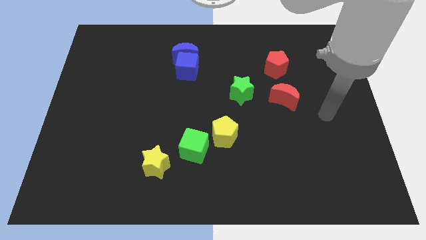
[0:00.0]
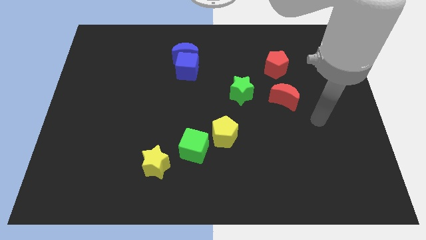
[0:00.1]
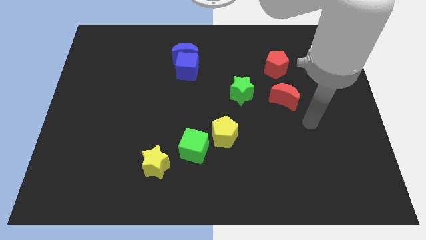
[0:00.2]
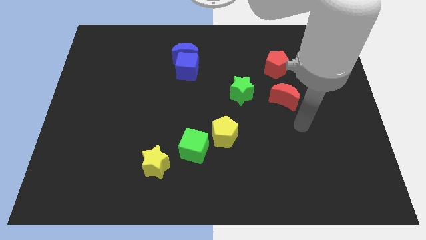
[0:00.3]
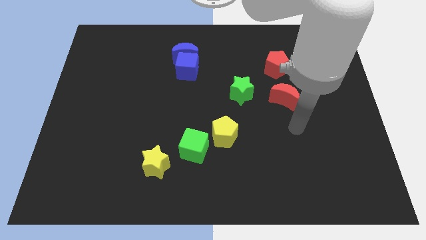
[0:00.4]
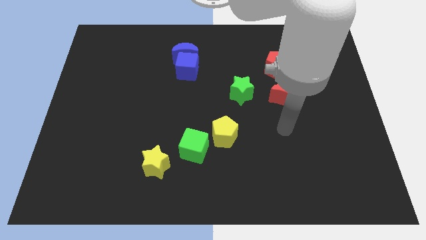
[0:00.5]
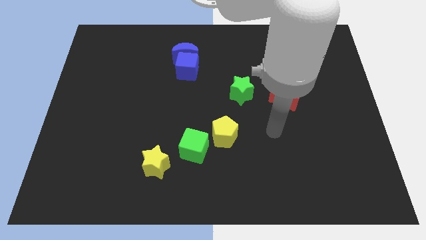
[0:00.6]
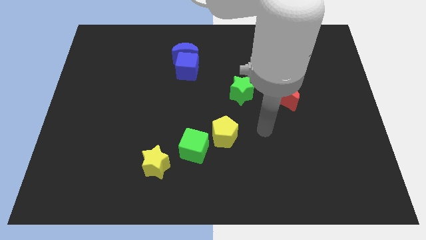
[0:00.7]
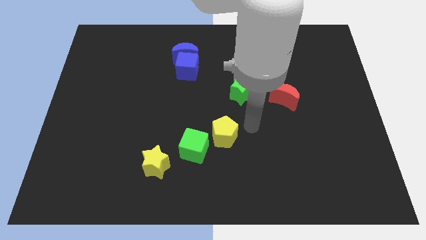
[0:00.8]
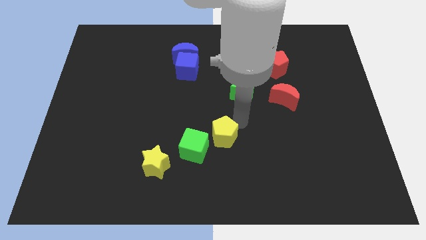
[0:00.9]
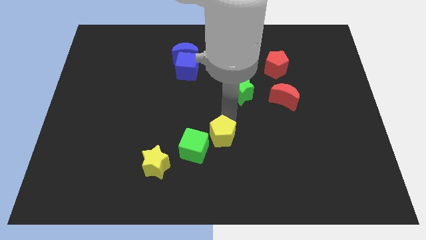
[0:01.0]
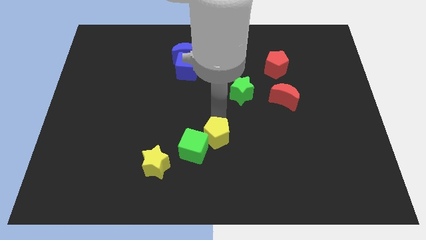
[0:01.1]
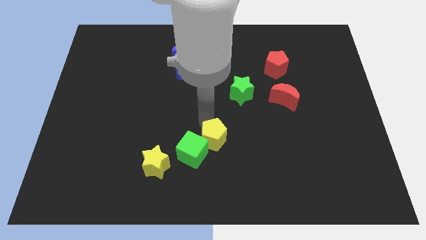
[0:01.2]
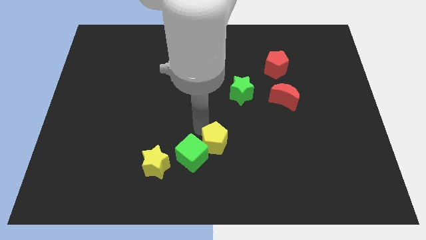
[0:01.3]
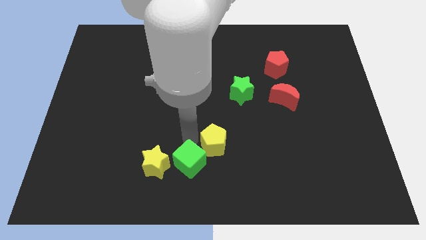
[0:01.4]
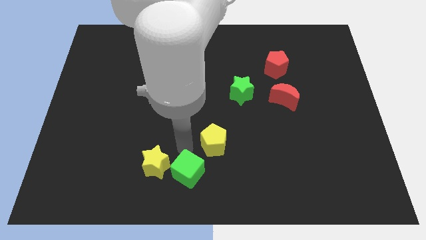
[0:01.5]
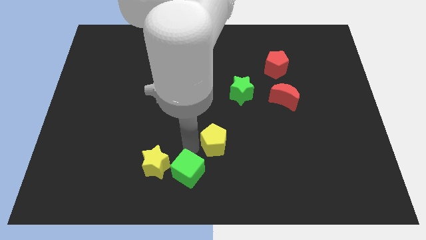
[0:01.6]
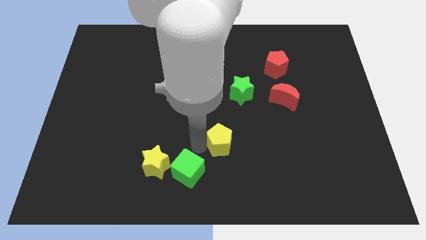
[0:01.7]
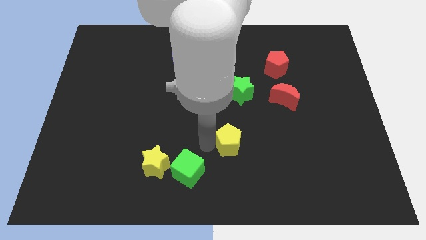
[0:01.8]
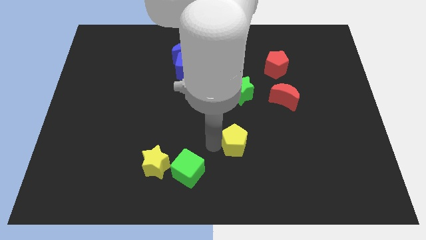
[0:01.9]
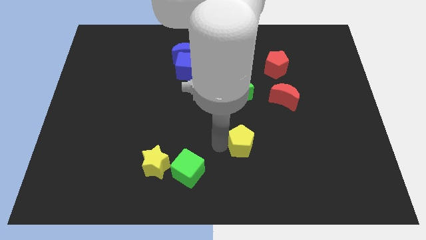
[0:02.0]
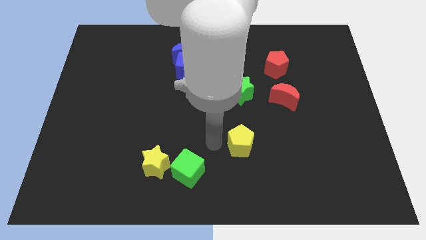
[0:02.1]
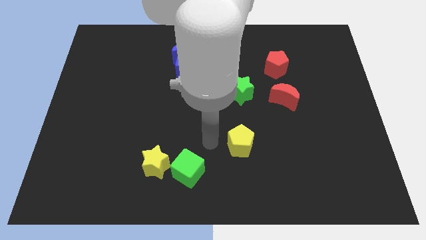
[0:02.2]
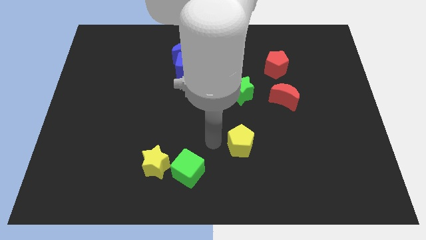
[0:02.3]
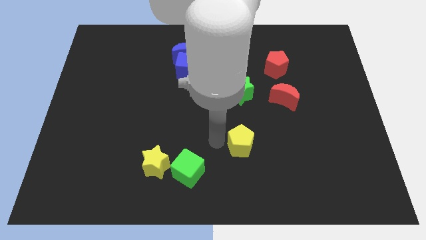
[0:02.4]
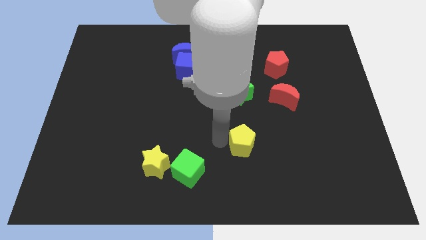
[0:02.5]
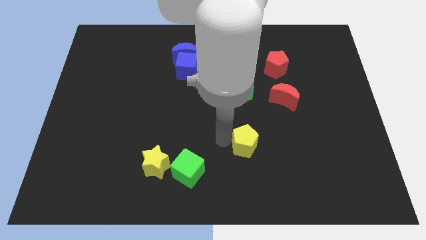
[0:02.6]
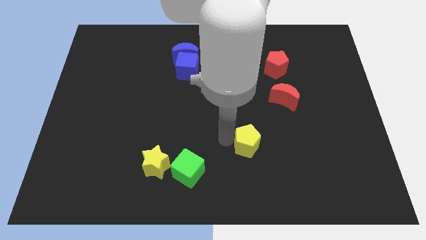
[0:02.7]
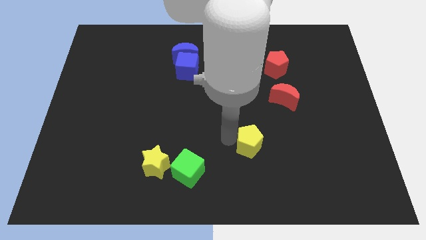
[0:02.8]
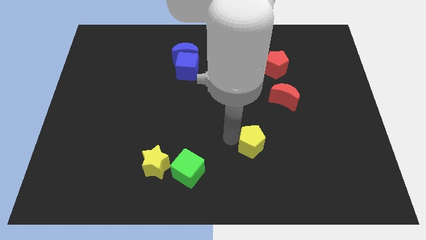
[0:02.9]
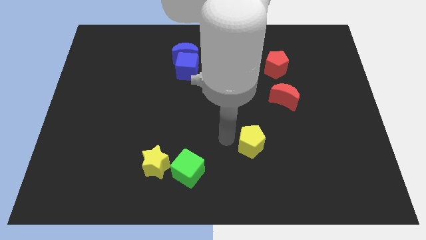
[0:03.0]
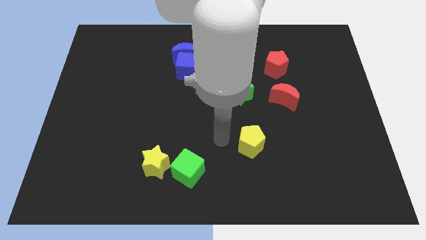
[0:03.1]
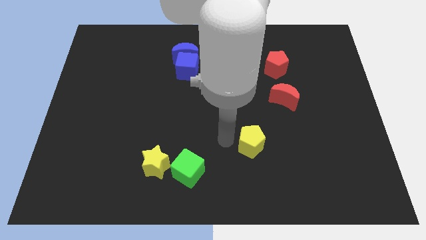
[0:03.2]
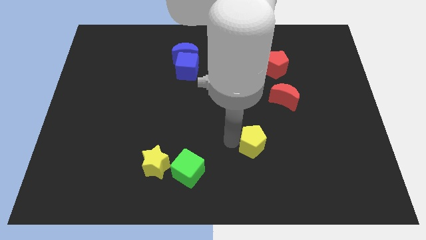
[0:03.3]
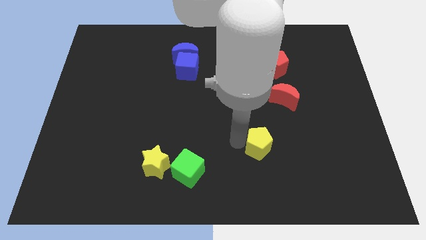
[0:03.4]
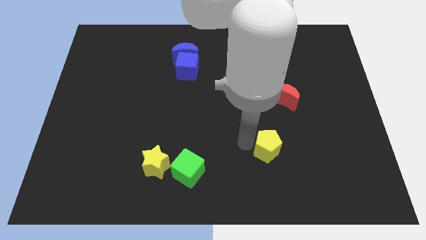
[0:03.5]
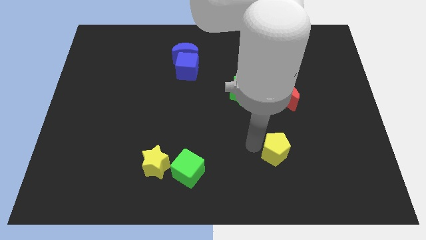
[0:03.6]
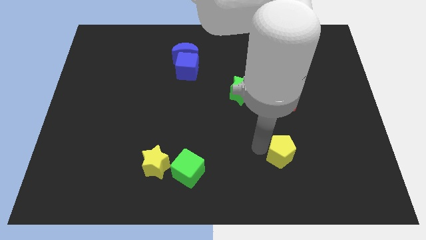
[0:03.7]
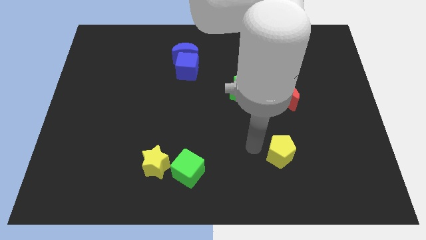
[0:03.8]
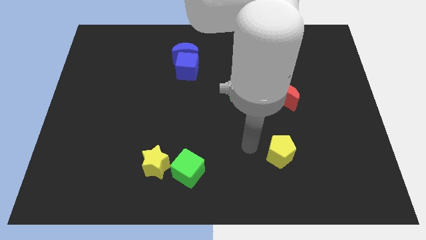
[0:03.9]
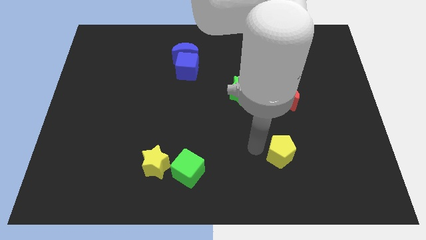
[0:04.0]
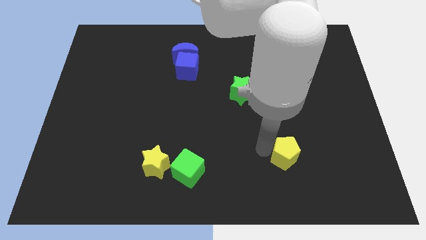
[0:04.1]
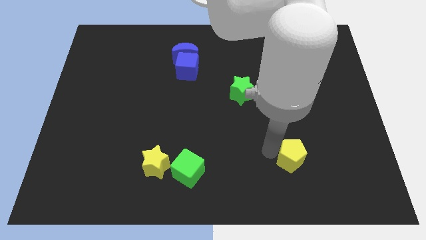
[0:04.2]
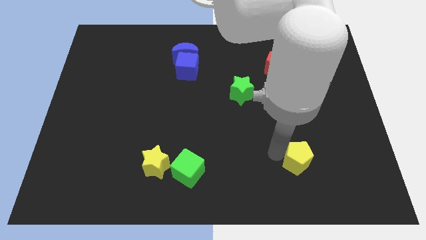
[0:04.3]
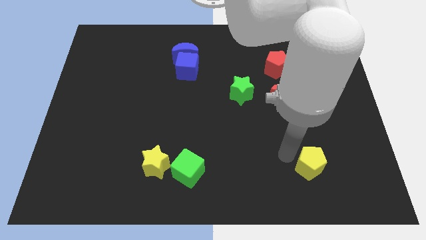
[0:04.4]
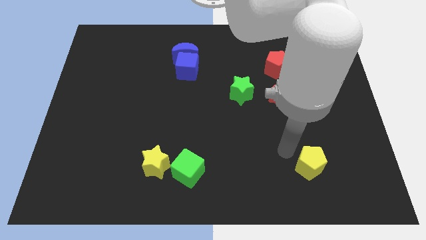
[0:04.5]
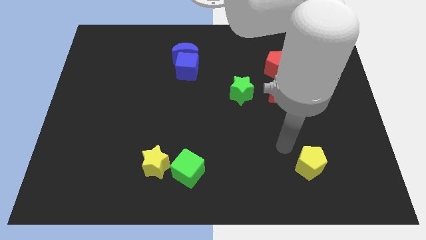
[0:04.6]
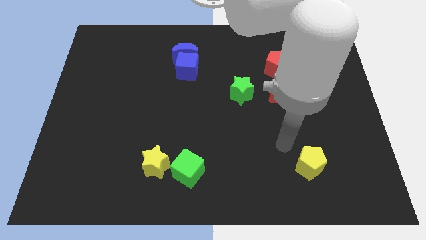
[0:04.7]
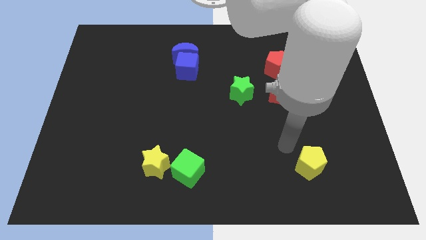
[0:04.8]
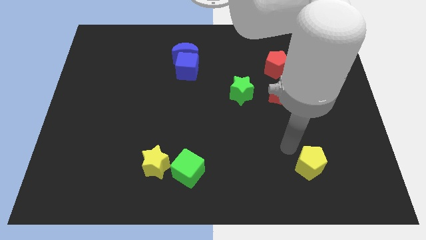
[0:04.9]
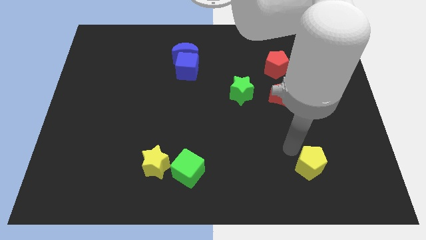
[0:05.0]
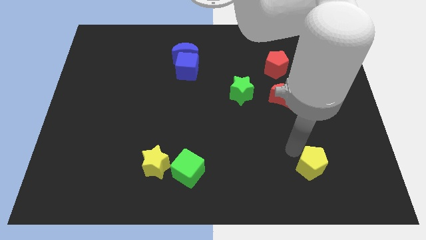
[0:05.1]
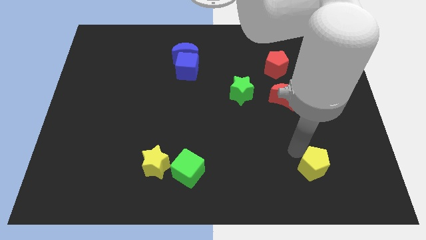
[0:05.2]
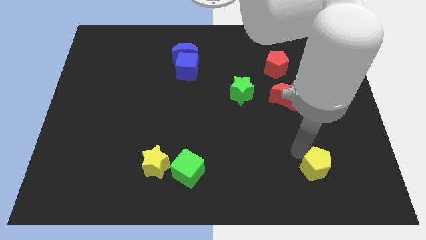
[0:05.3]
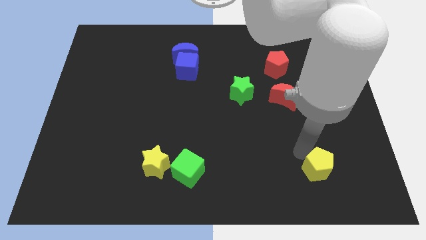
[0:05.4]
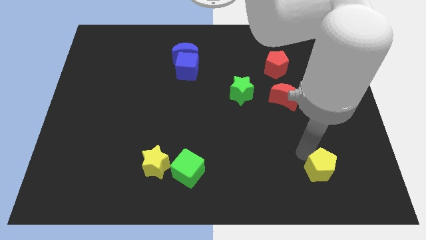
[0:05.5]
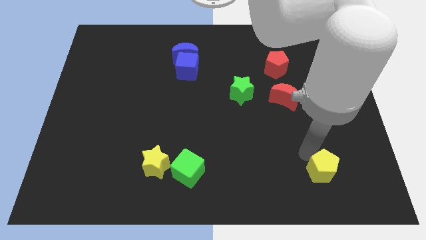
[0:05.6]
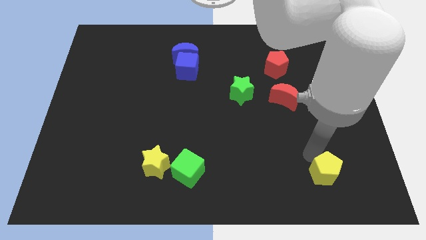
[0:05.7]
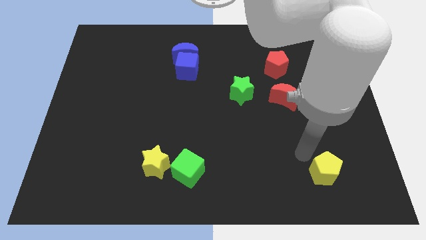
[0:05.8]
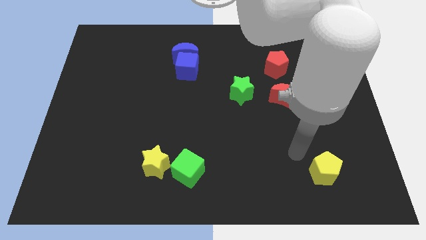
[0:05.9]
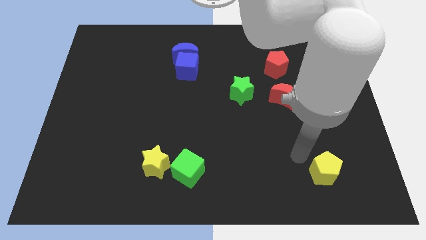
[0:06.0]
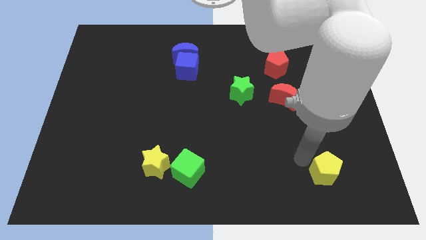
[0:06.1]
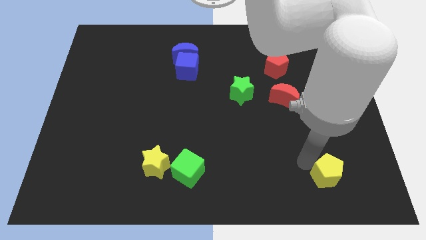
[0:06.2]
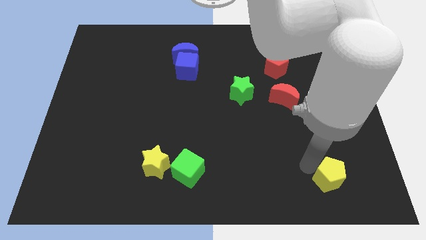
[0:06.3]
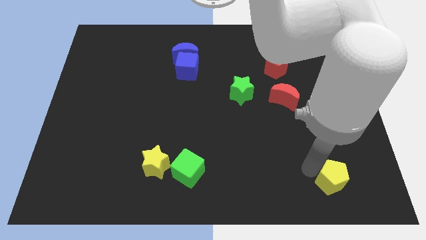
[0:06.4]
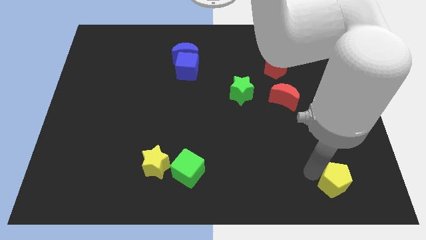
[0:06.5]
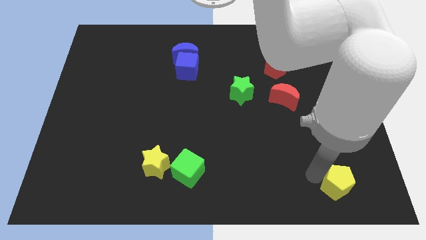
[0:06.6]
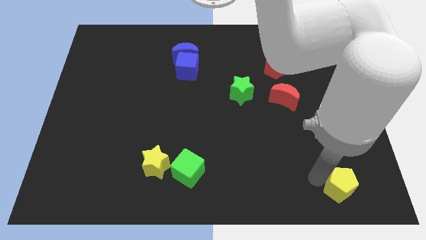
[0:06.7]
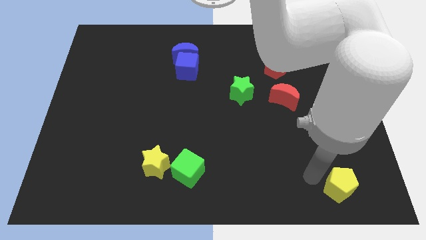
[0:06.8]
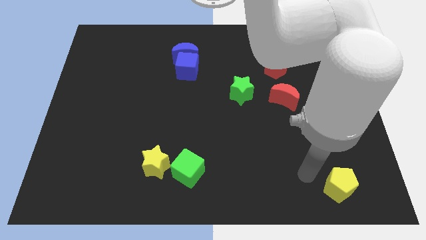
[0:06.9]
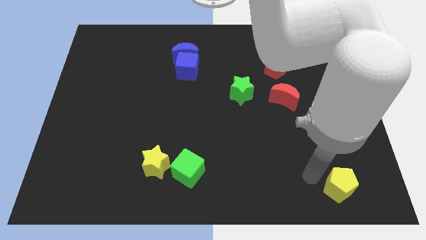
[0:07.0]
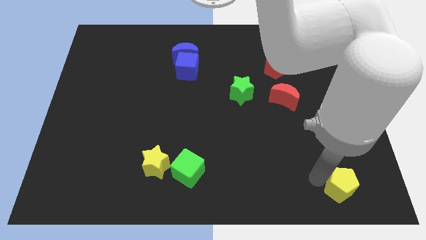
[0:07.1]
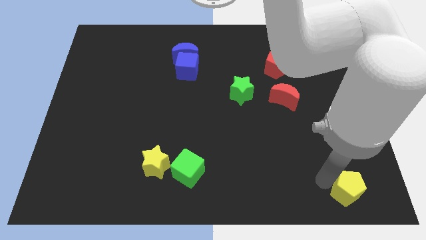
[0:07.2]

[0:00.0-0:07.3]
push the yellow pentagon to the lower right corner
